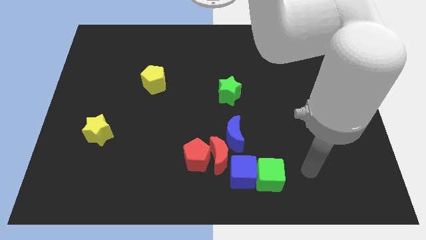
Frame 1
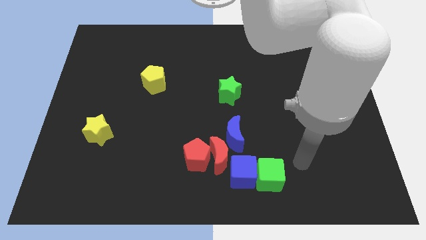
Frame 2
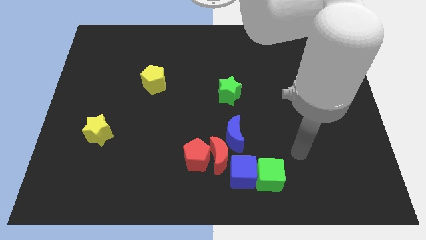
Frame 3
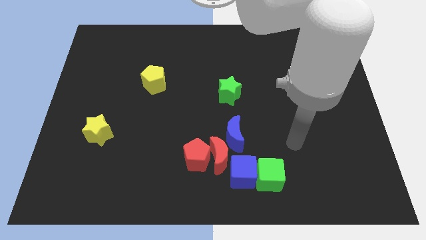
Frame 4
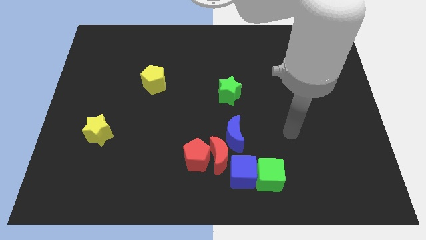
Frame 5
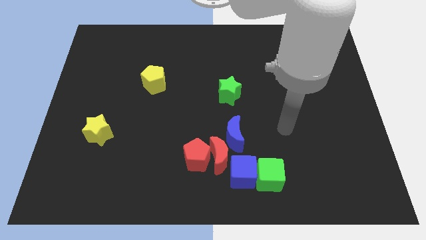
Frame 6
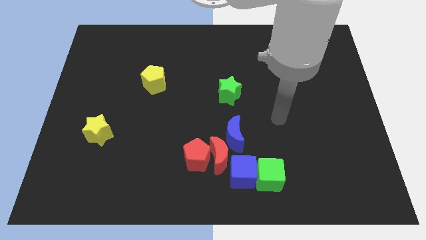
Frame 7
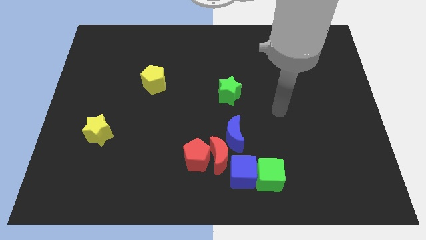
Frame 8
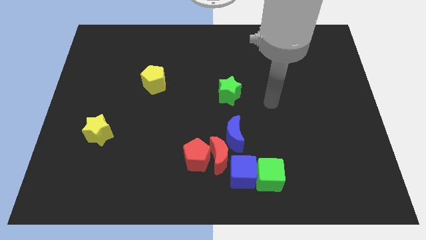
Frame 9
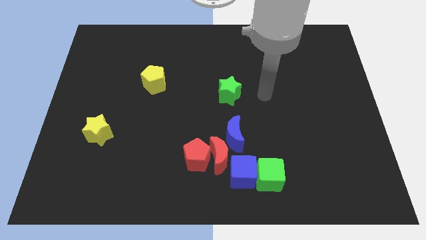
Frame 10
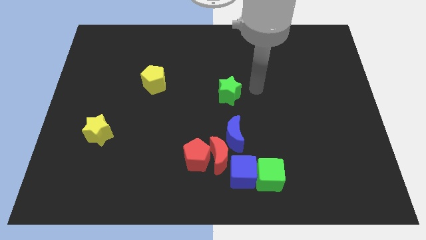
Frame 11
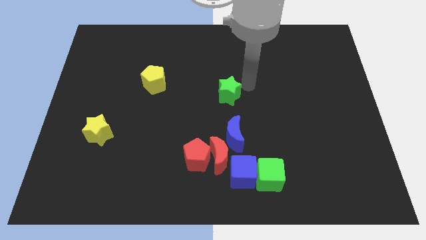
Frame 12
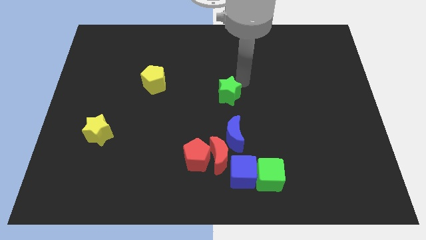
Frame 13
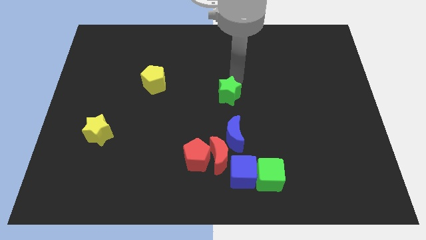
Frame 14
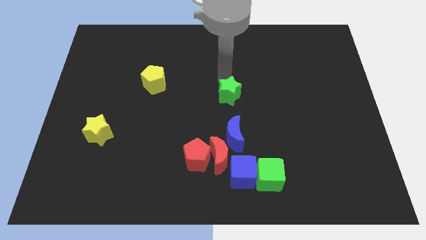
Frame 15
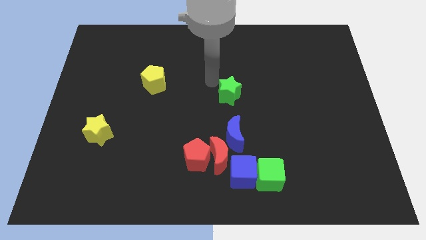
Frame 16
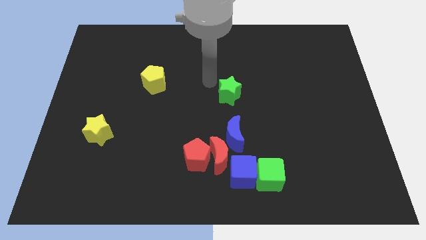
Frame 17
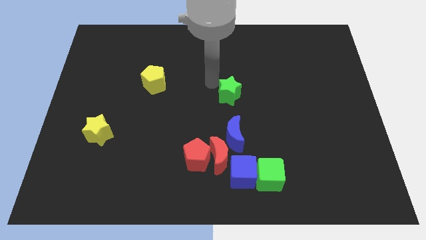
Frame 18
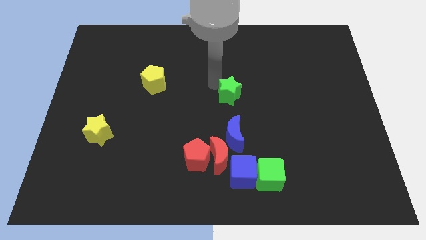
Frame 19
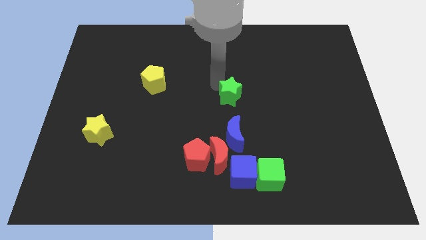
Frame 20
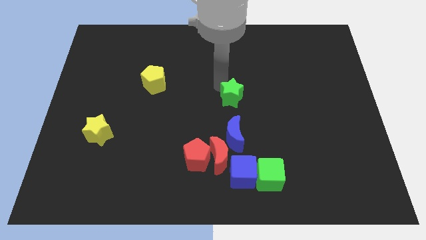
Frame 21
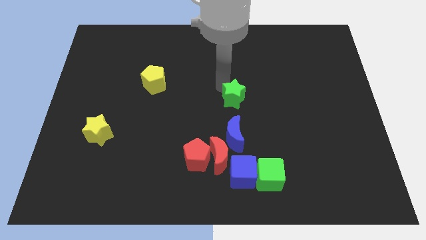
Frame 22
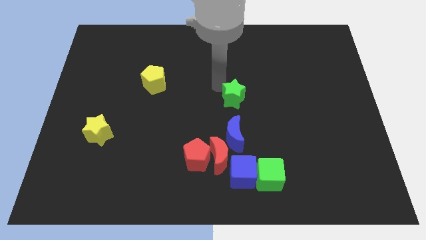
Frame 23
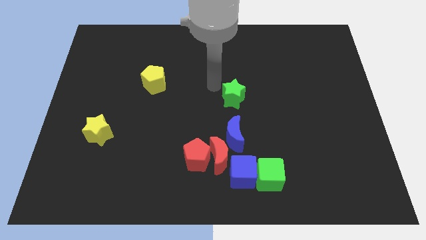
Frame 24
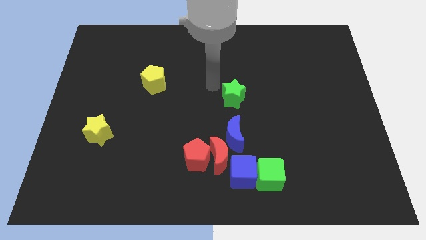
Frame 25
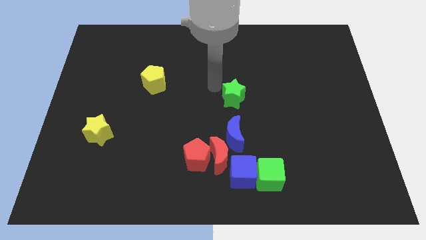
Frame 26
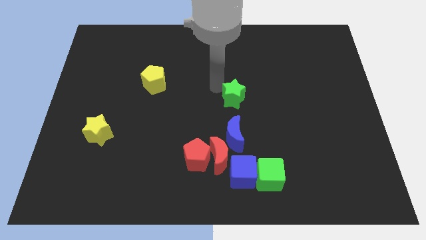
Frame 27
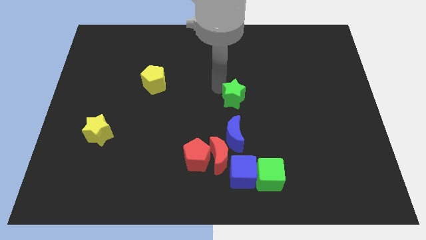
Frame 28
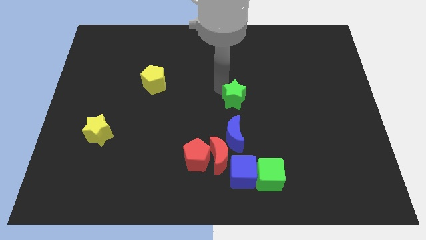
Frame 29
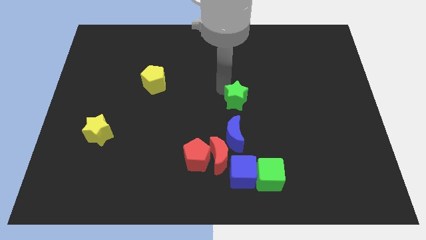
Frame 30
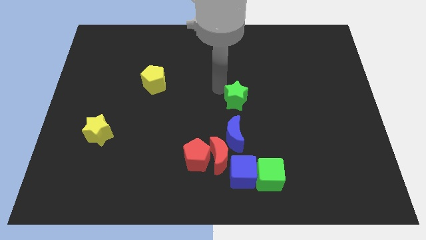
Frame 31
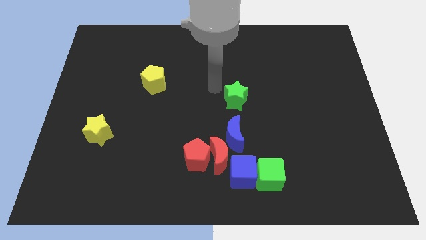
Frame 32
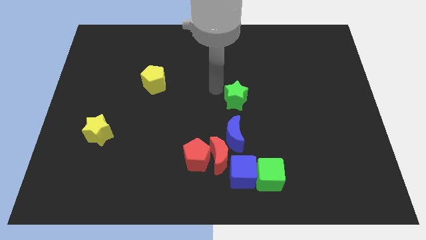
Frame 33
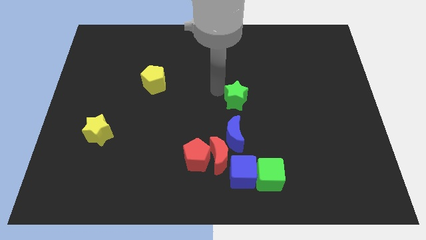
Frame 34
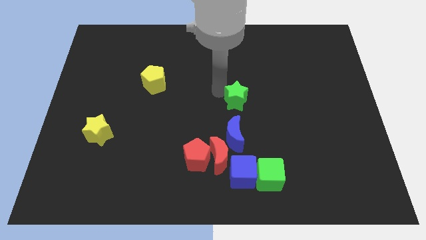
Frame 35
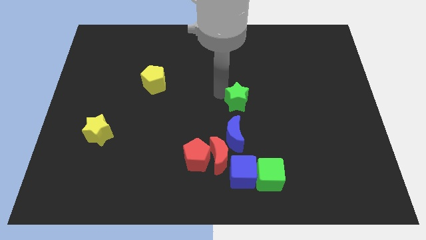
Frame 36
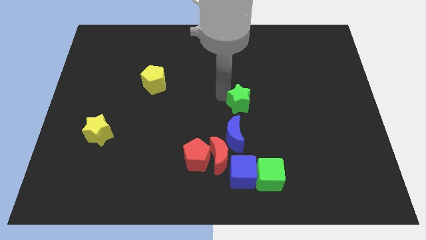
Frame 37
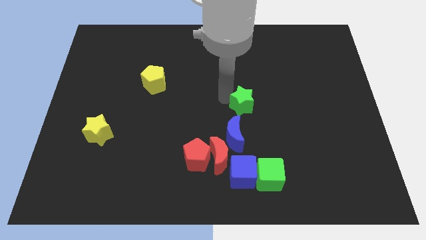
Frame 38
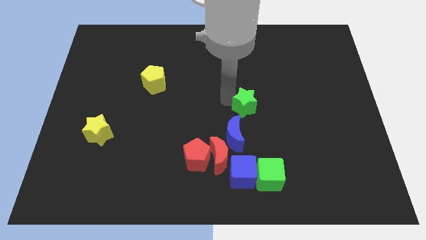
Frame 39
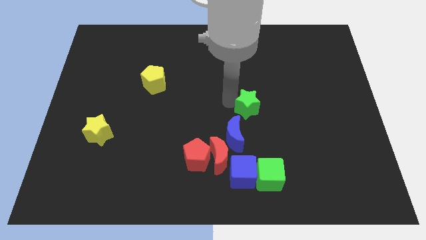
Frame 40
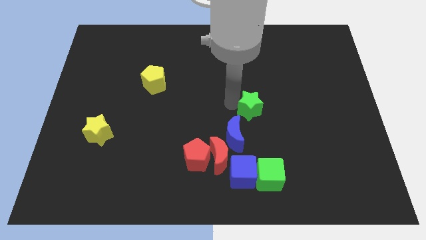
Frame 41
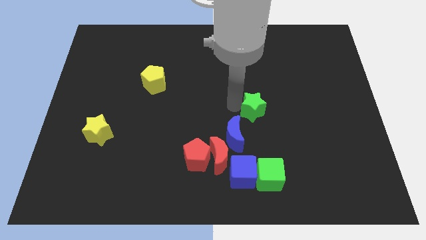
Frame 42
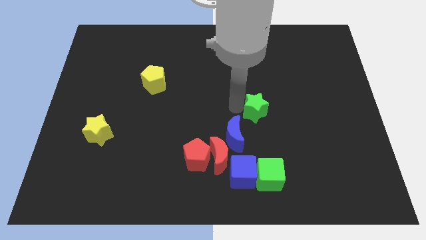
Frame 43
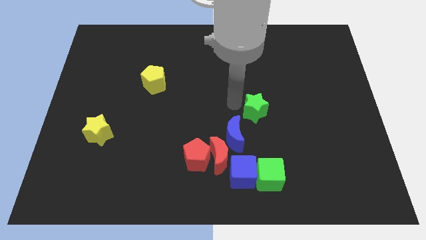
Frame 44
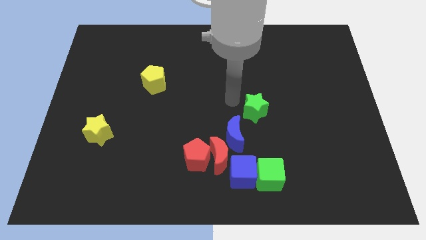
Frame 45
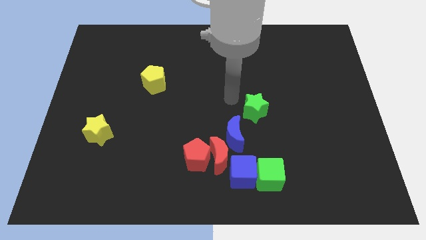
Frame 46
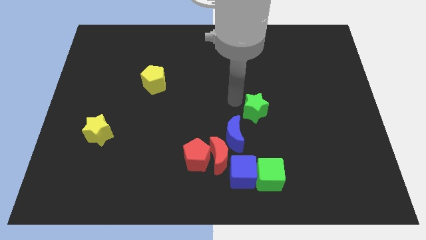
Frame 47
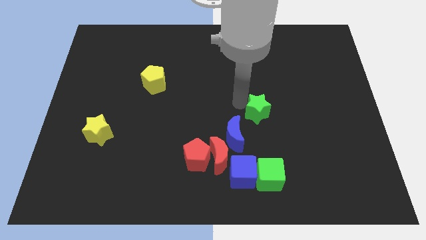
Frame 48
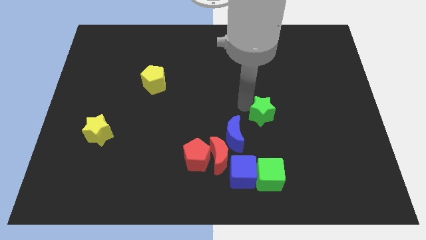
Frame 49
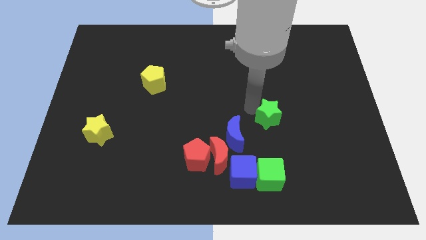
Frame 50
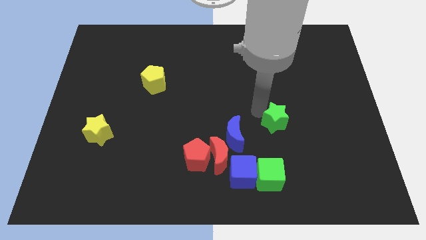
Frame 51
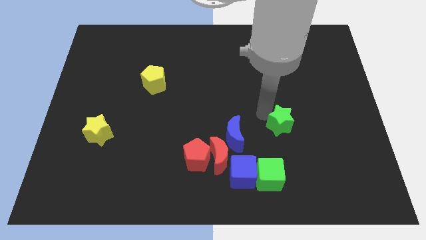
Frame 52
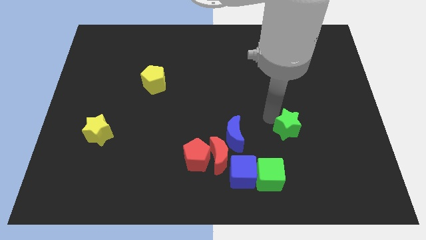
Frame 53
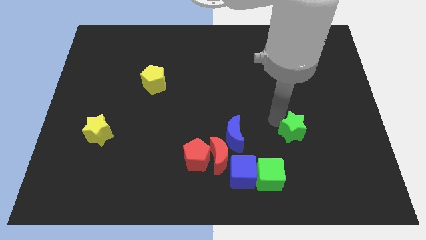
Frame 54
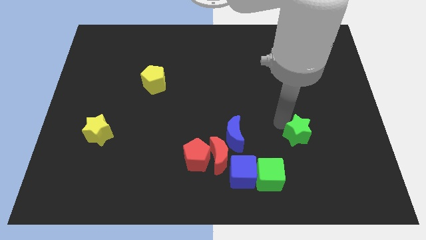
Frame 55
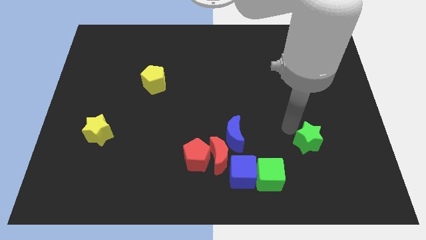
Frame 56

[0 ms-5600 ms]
slide the green star down and then right

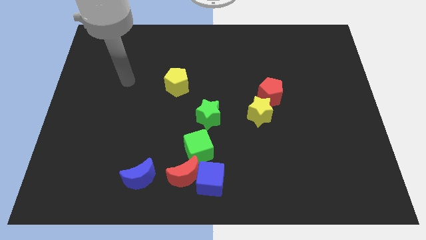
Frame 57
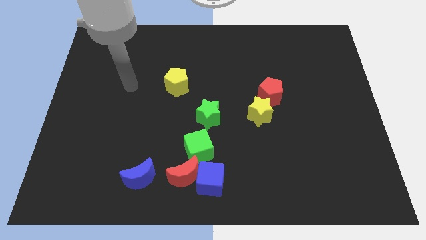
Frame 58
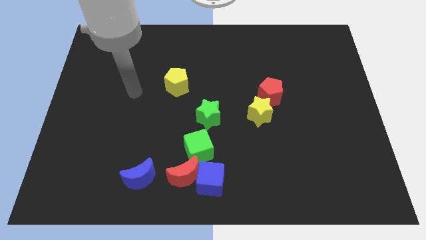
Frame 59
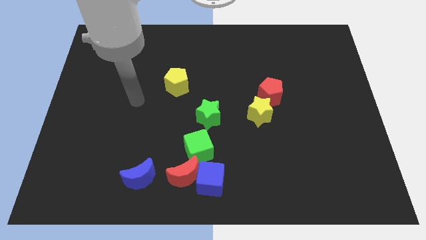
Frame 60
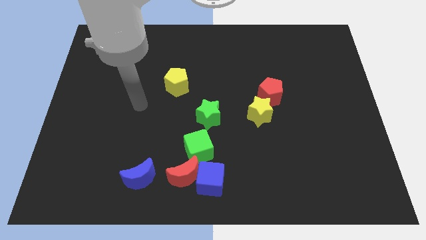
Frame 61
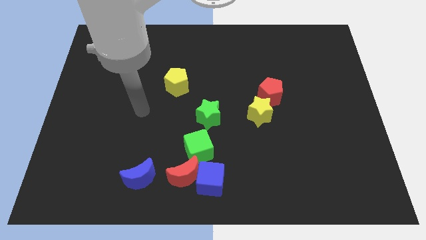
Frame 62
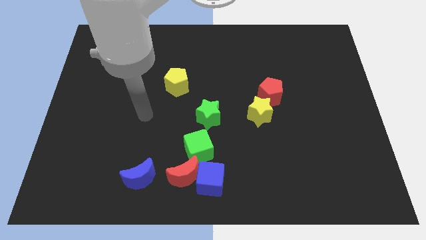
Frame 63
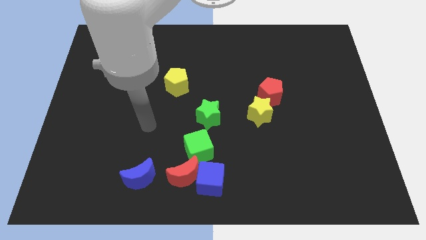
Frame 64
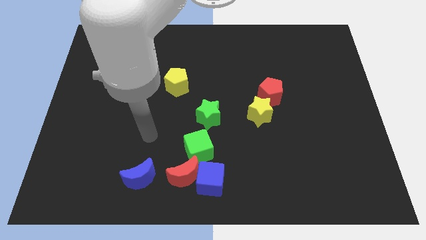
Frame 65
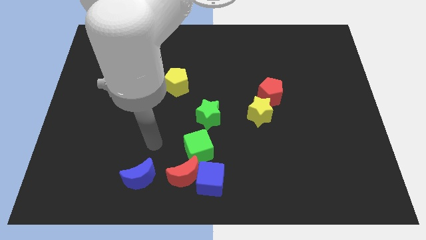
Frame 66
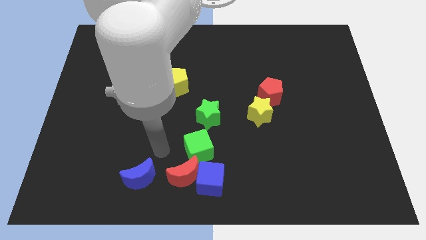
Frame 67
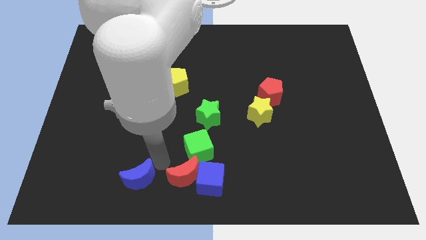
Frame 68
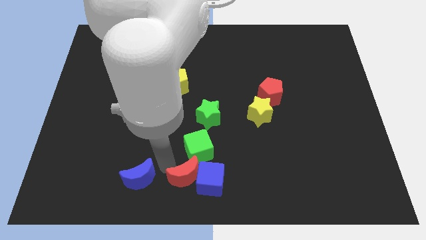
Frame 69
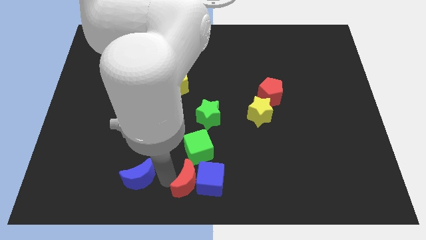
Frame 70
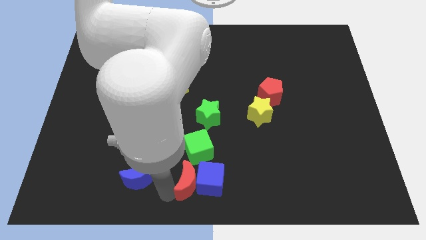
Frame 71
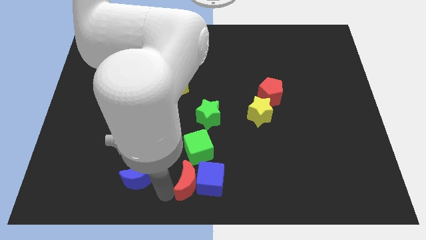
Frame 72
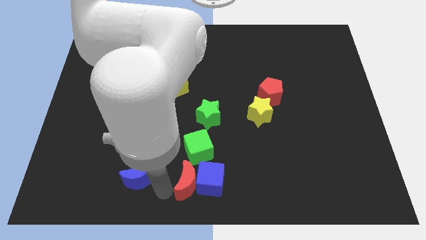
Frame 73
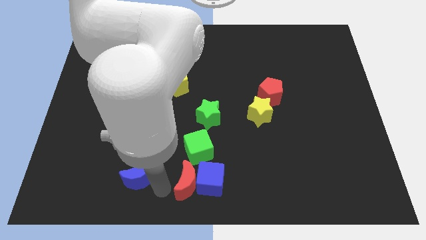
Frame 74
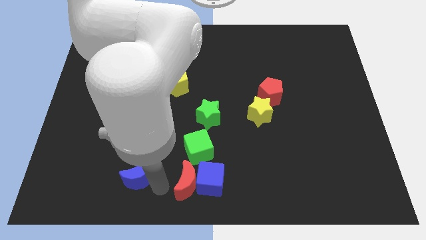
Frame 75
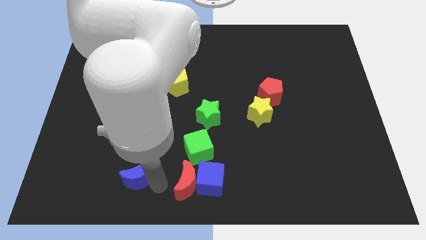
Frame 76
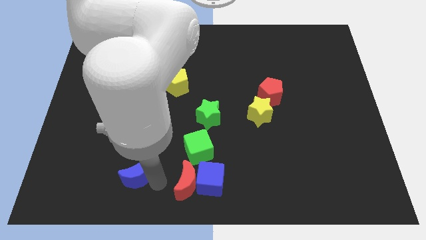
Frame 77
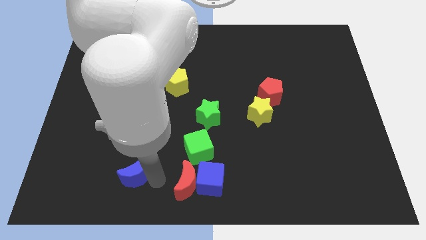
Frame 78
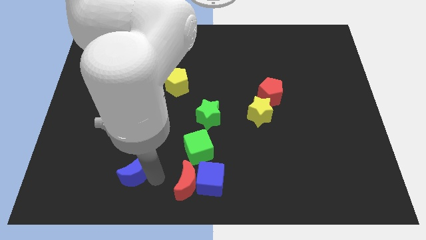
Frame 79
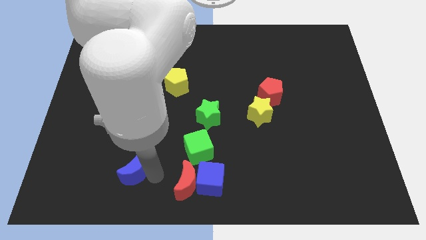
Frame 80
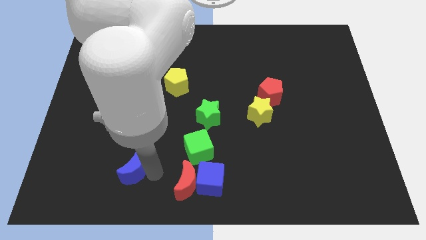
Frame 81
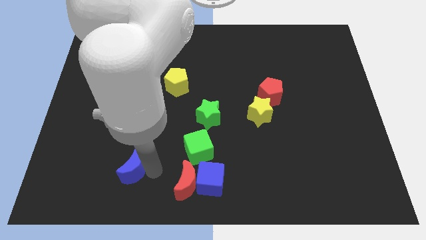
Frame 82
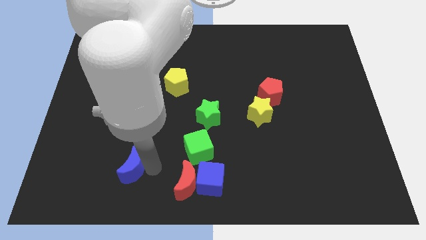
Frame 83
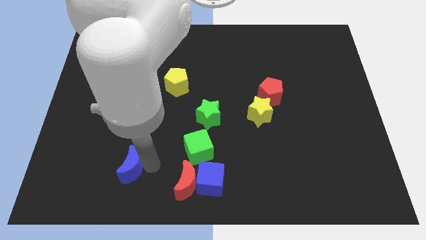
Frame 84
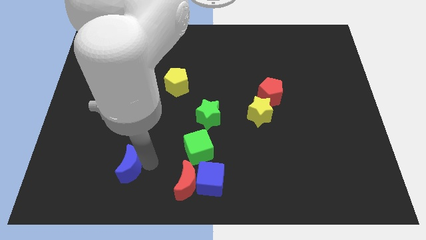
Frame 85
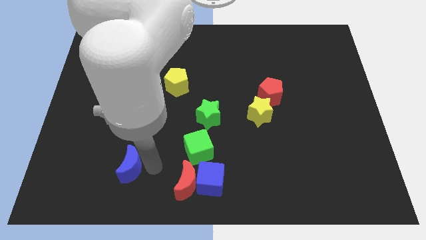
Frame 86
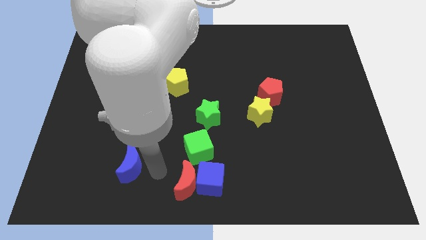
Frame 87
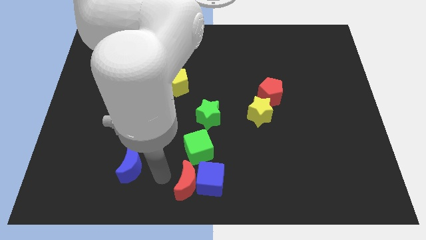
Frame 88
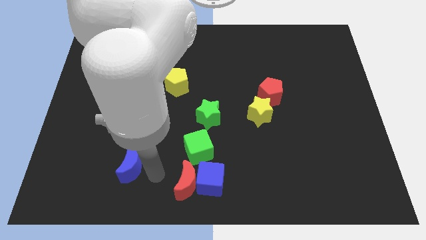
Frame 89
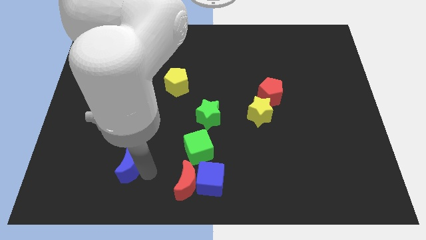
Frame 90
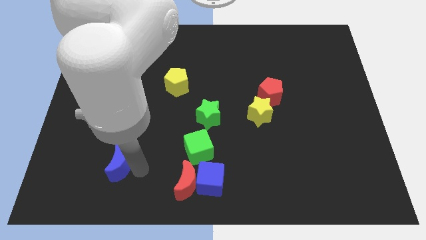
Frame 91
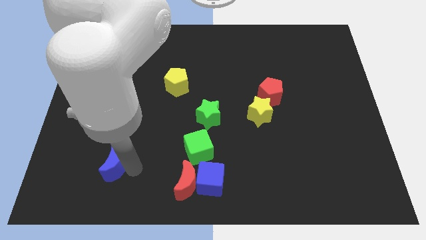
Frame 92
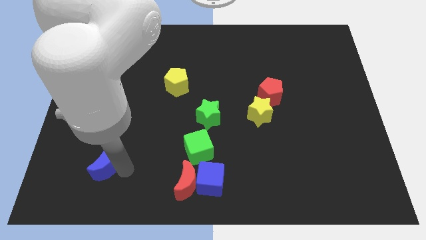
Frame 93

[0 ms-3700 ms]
move the blue moon upwards and to the left slightly
